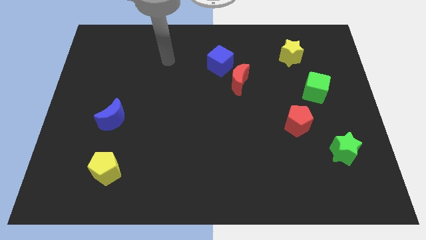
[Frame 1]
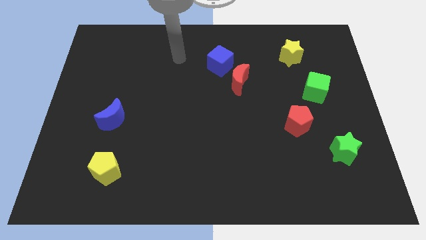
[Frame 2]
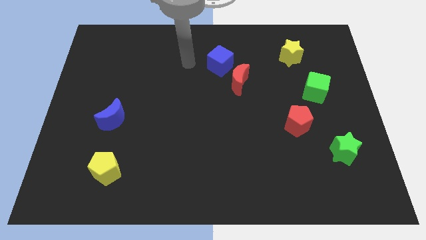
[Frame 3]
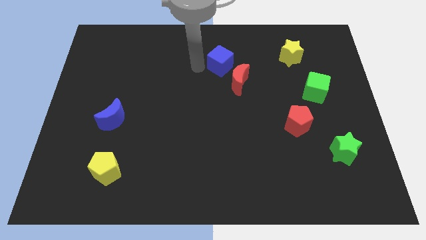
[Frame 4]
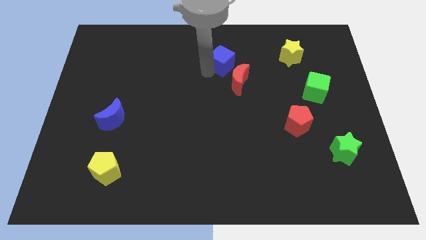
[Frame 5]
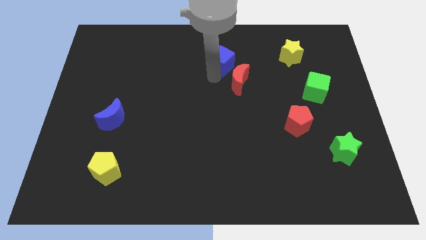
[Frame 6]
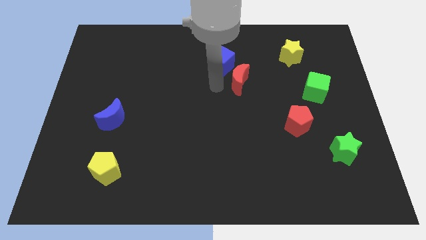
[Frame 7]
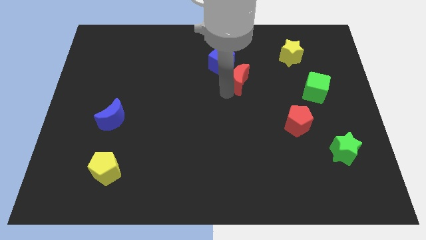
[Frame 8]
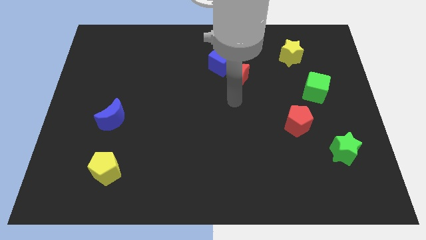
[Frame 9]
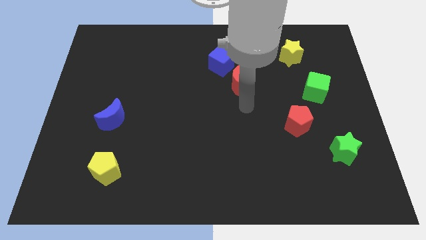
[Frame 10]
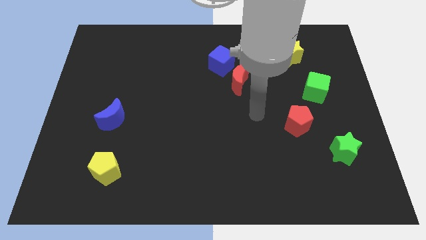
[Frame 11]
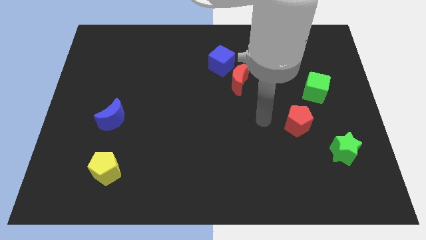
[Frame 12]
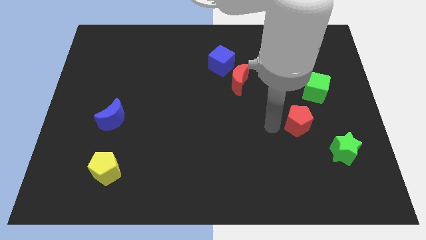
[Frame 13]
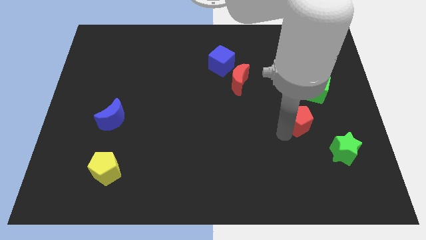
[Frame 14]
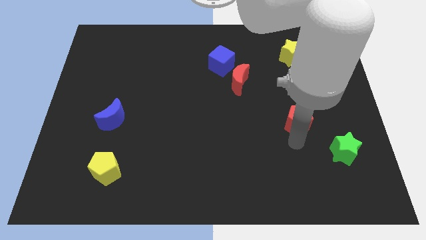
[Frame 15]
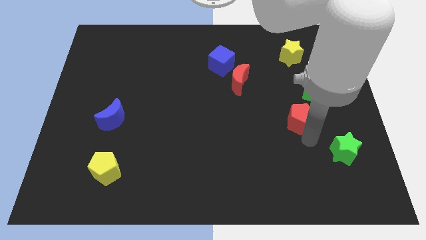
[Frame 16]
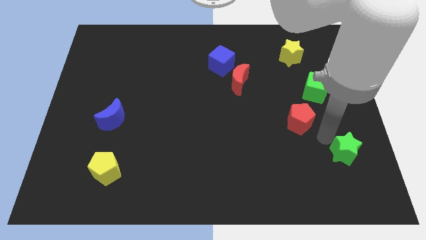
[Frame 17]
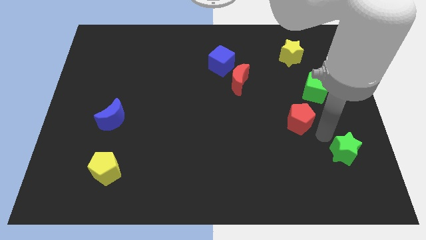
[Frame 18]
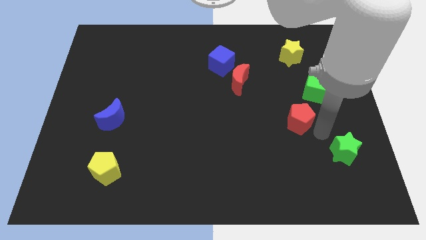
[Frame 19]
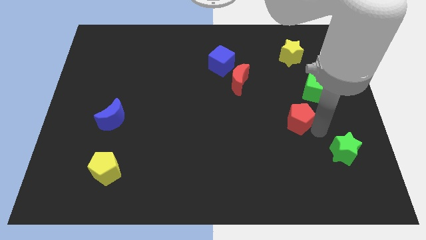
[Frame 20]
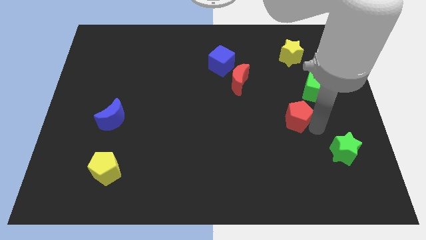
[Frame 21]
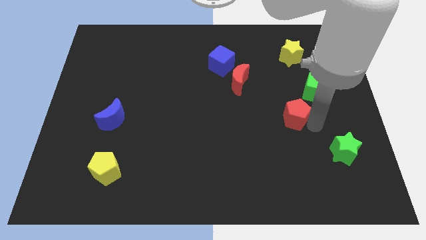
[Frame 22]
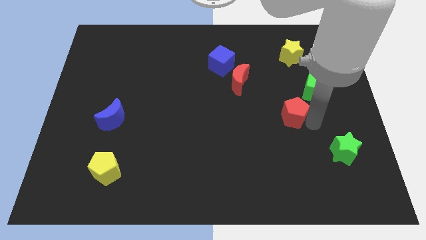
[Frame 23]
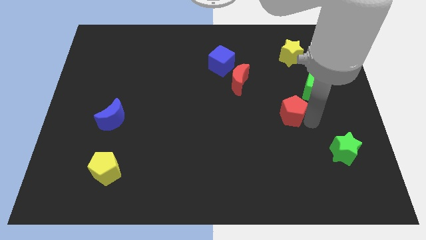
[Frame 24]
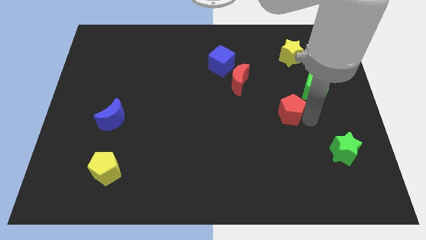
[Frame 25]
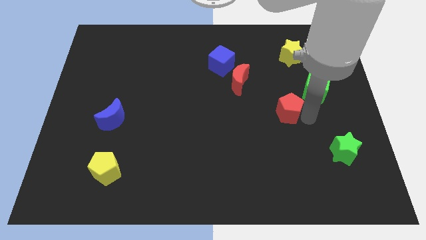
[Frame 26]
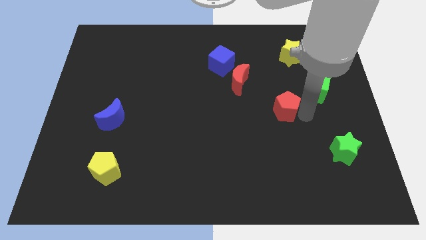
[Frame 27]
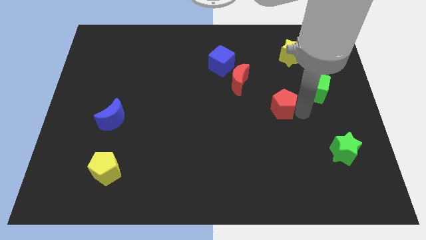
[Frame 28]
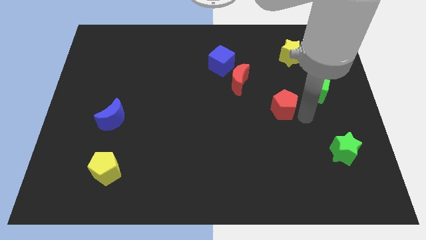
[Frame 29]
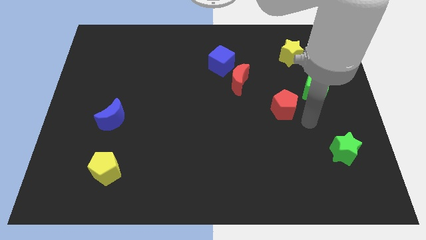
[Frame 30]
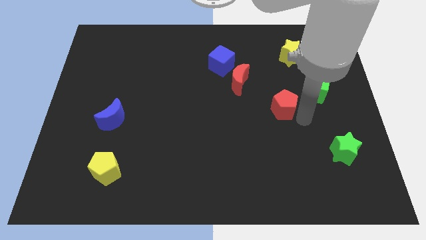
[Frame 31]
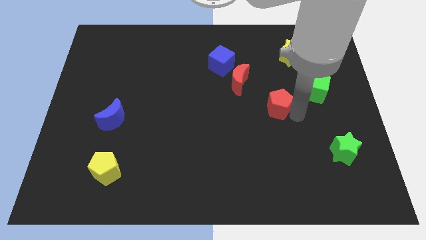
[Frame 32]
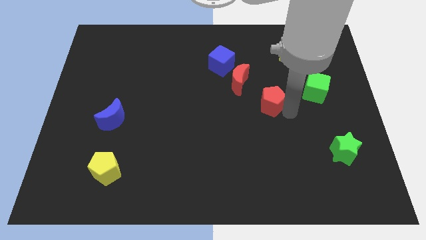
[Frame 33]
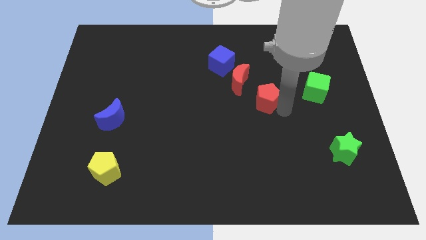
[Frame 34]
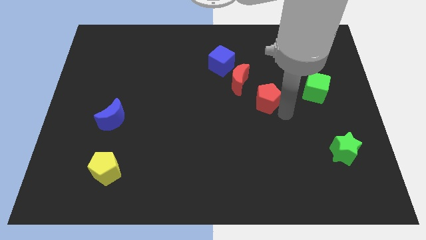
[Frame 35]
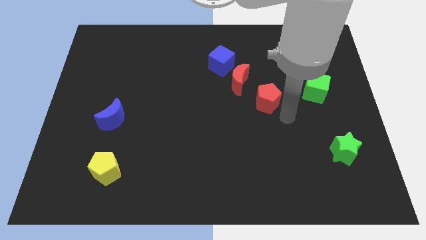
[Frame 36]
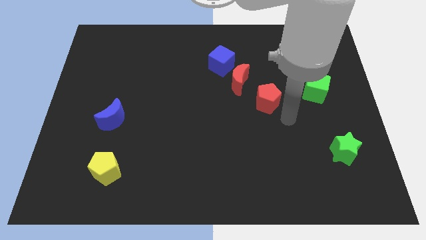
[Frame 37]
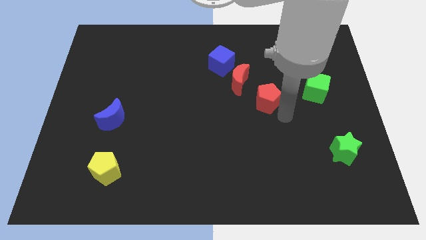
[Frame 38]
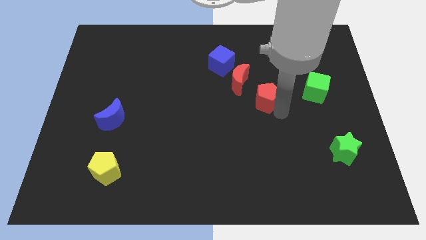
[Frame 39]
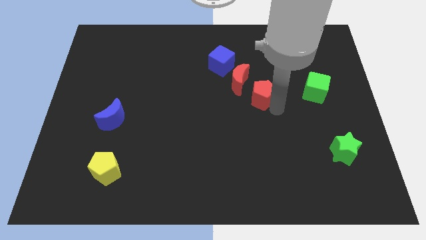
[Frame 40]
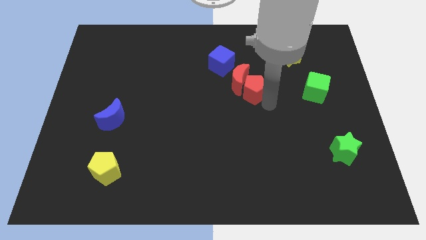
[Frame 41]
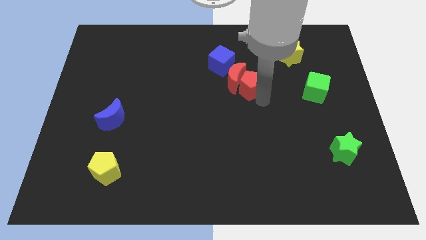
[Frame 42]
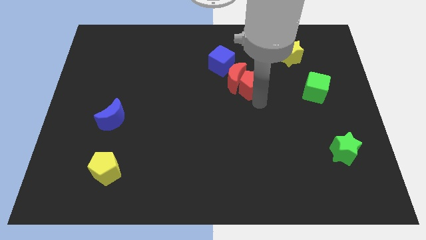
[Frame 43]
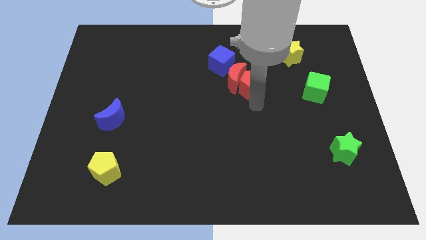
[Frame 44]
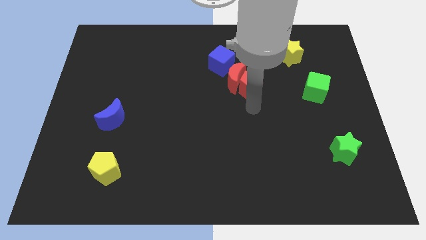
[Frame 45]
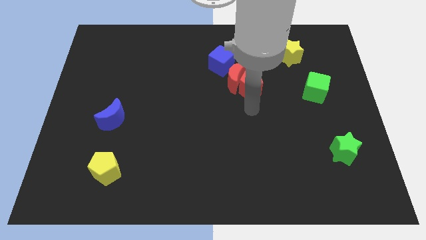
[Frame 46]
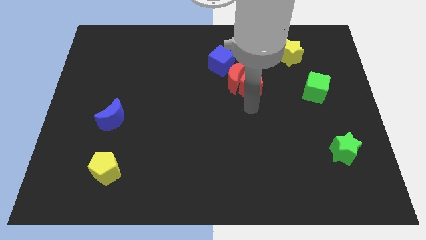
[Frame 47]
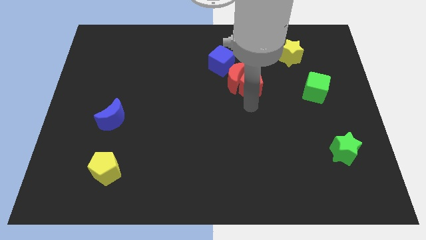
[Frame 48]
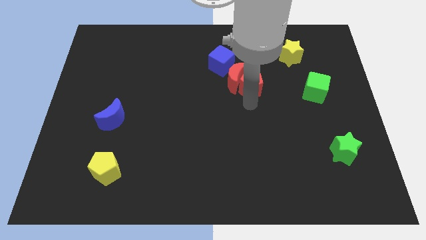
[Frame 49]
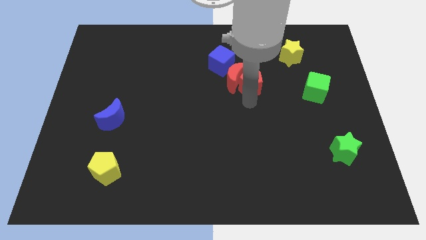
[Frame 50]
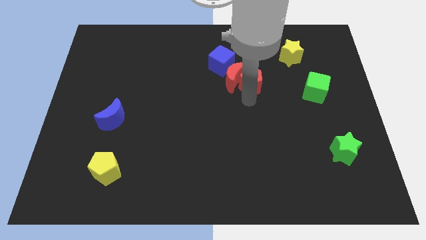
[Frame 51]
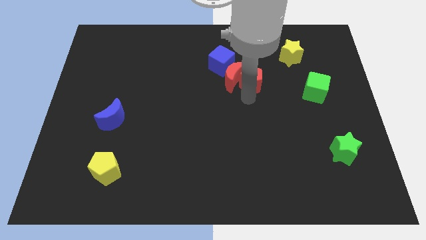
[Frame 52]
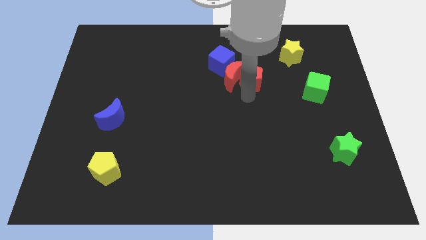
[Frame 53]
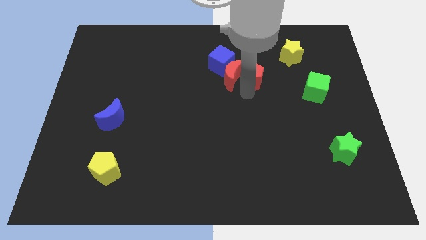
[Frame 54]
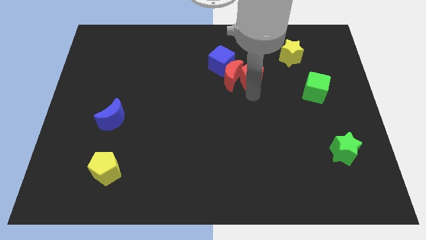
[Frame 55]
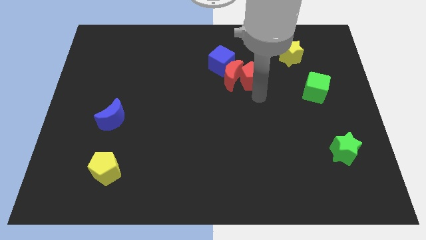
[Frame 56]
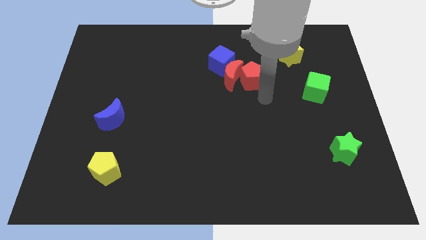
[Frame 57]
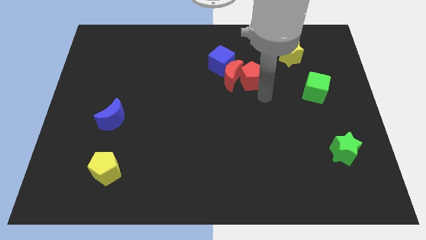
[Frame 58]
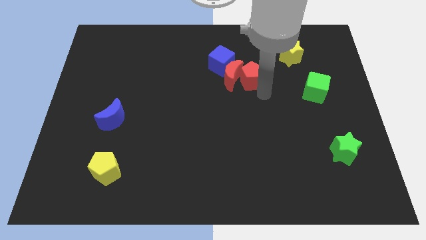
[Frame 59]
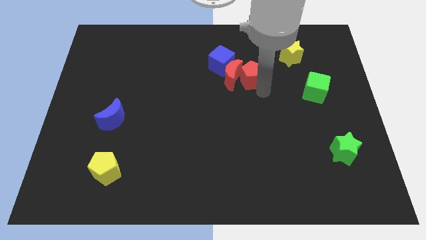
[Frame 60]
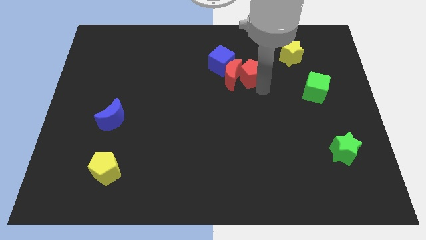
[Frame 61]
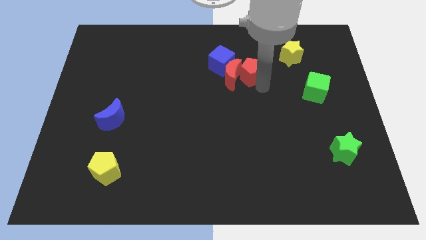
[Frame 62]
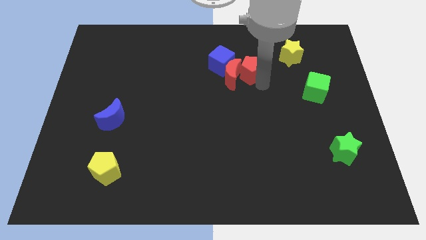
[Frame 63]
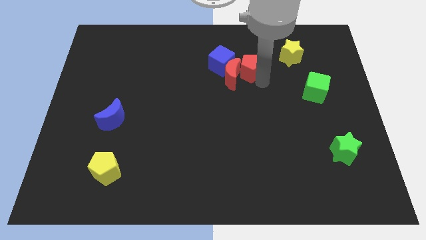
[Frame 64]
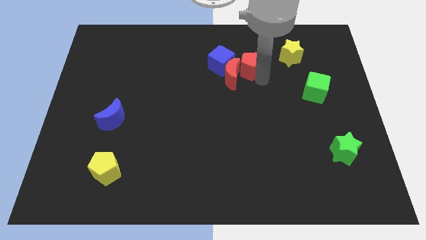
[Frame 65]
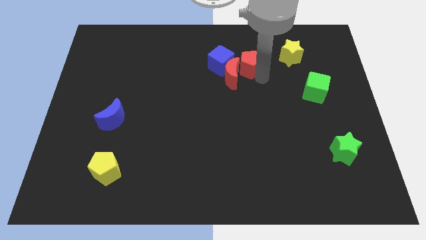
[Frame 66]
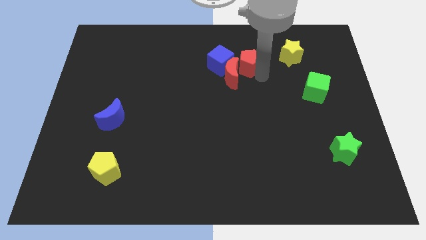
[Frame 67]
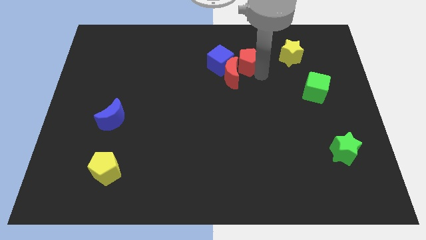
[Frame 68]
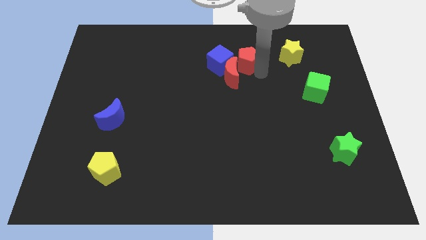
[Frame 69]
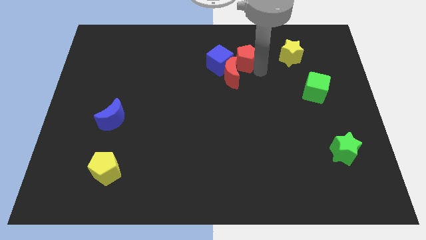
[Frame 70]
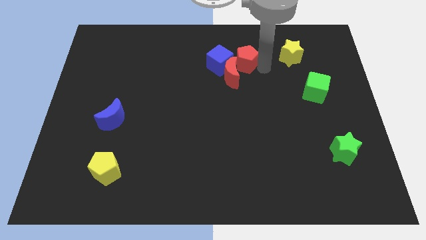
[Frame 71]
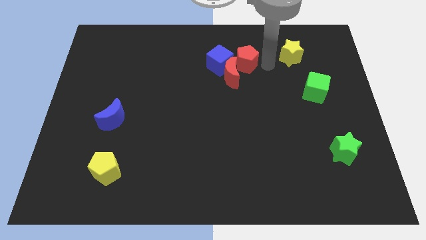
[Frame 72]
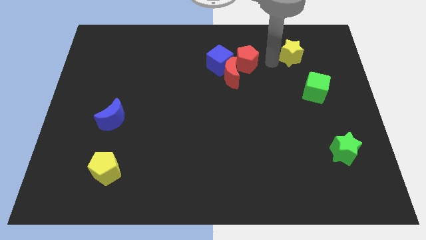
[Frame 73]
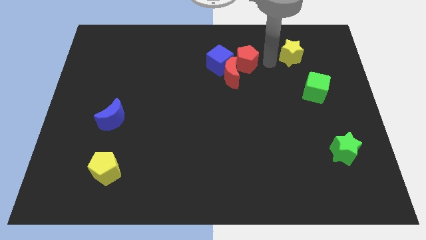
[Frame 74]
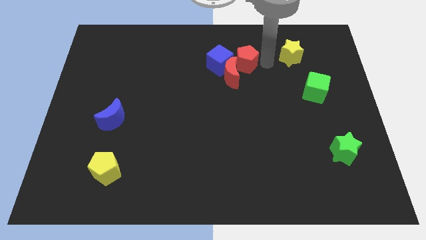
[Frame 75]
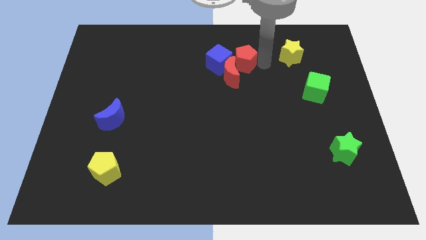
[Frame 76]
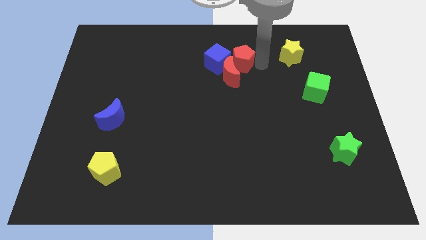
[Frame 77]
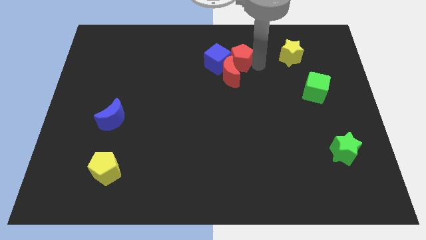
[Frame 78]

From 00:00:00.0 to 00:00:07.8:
slide the red pentagon next to the blue cube
